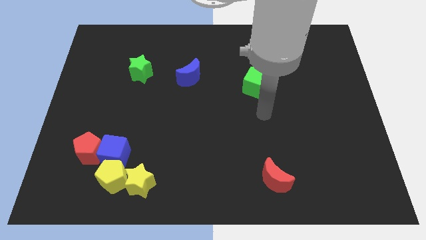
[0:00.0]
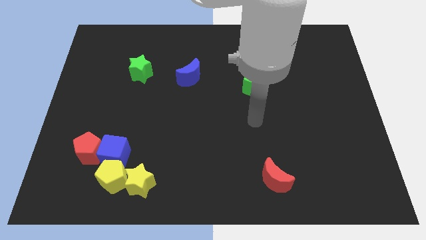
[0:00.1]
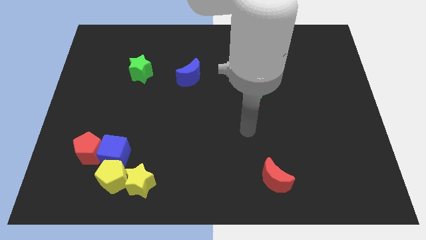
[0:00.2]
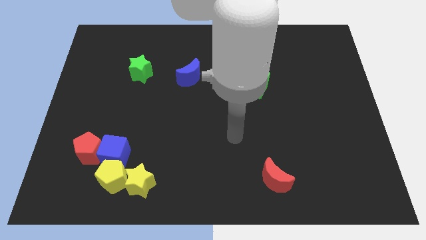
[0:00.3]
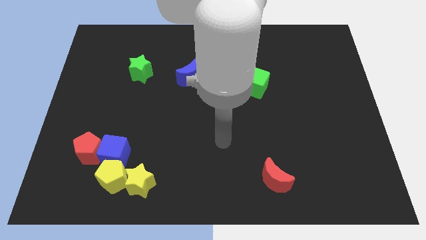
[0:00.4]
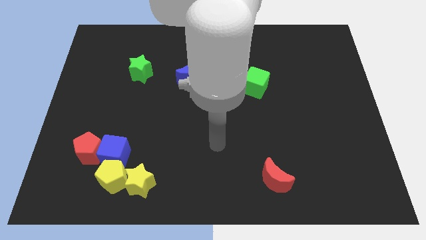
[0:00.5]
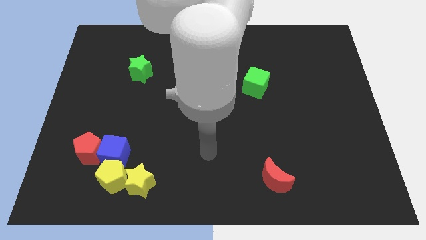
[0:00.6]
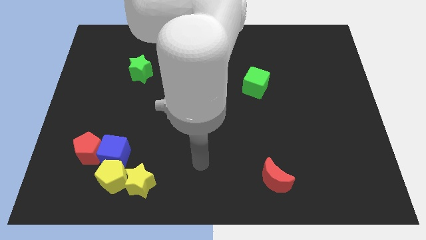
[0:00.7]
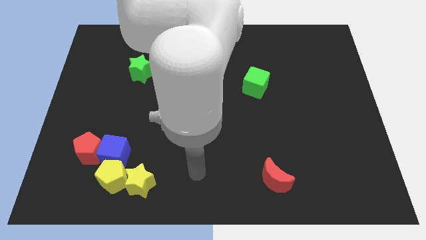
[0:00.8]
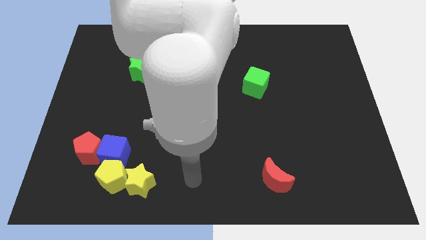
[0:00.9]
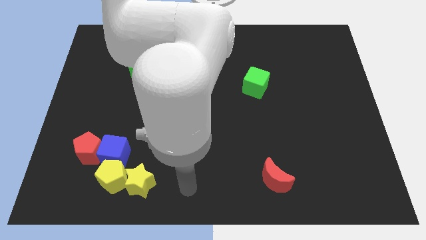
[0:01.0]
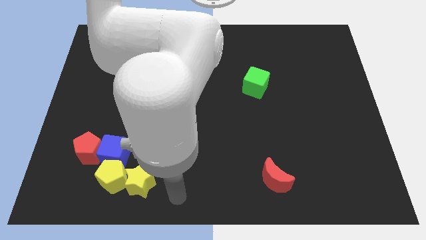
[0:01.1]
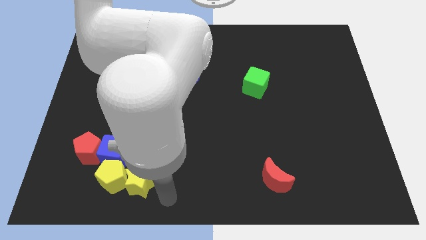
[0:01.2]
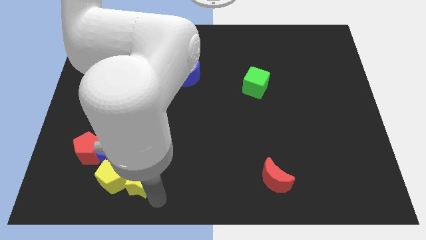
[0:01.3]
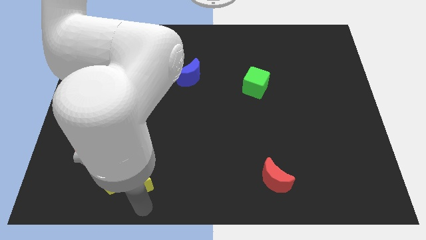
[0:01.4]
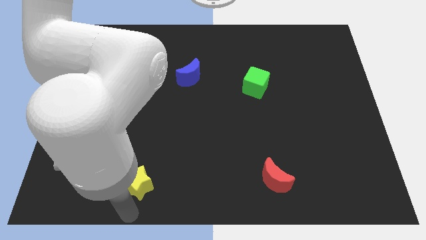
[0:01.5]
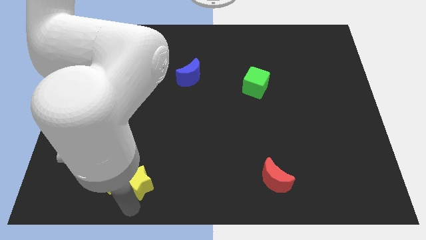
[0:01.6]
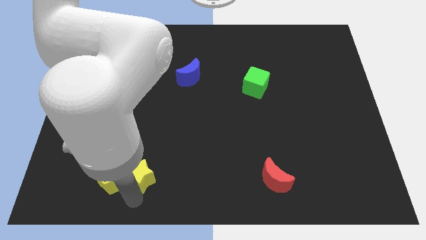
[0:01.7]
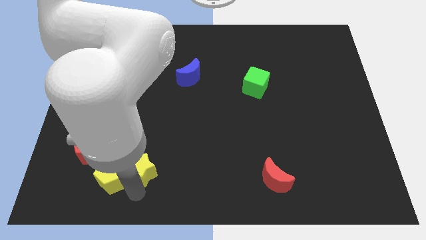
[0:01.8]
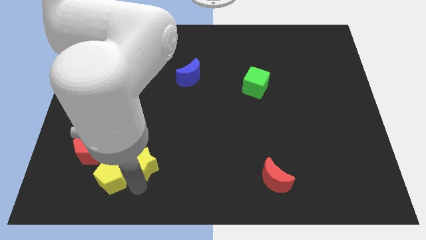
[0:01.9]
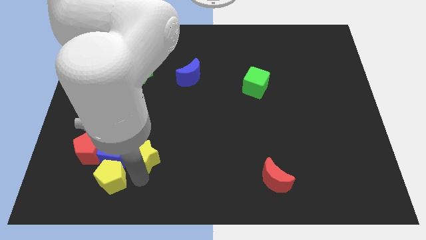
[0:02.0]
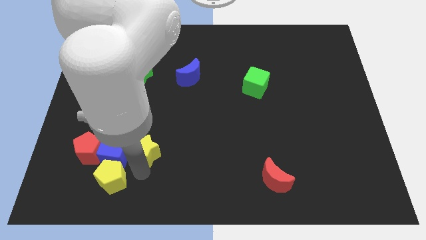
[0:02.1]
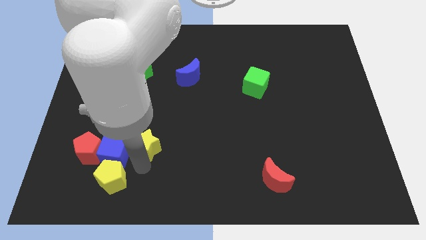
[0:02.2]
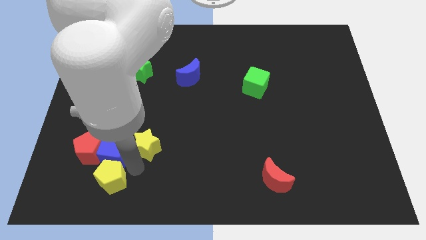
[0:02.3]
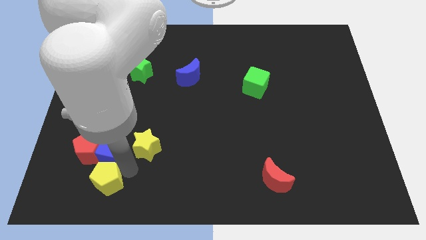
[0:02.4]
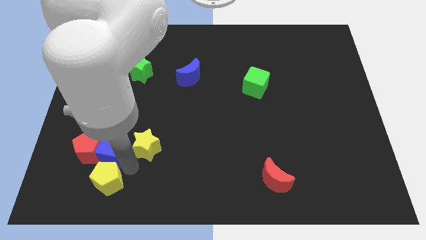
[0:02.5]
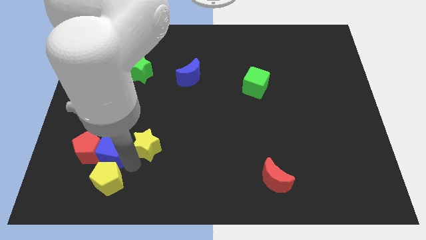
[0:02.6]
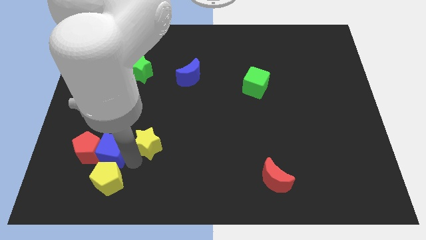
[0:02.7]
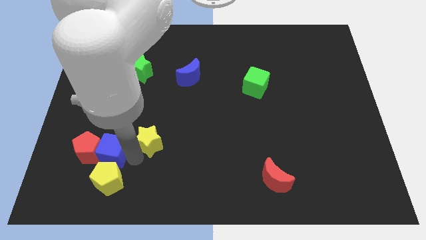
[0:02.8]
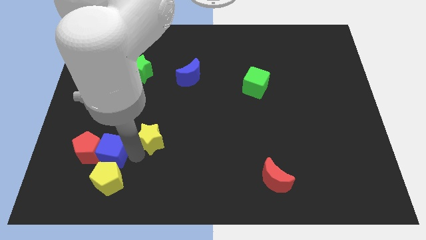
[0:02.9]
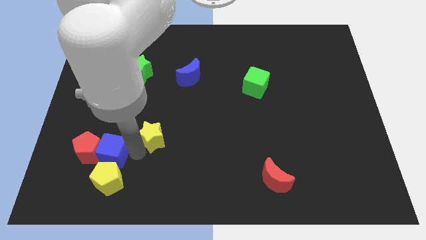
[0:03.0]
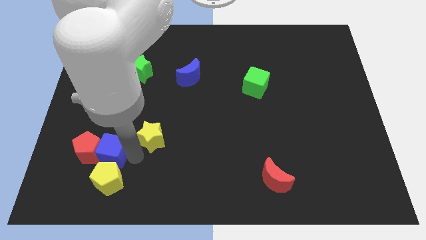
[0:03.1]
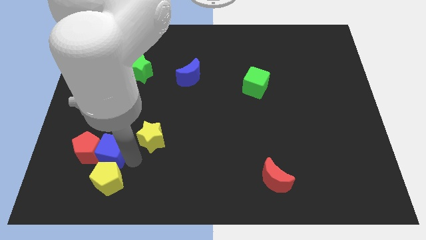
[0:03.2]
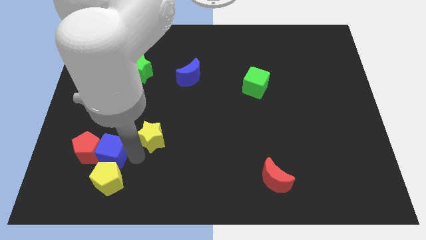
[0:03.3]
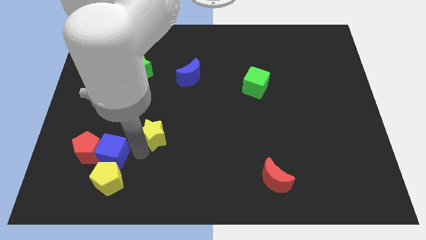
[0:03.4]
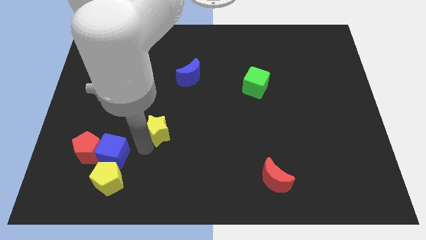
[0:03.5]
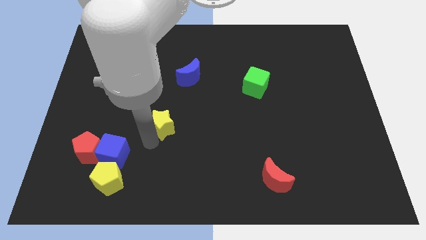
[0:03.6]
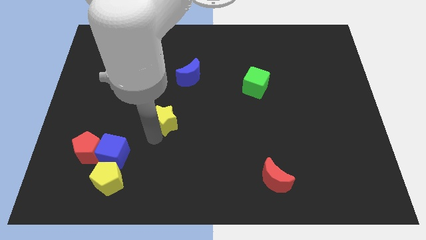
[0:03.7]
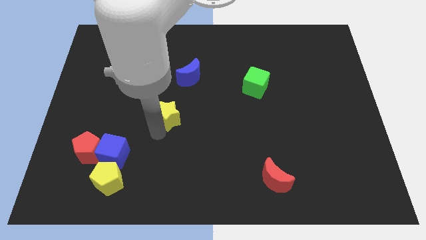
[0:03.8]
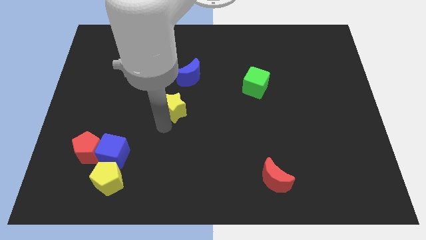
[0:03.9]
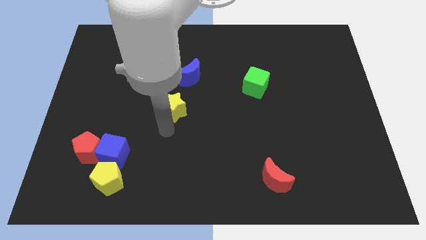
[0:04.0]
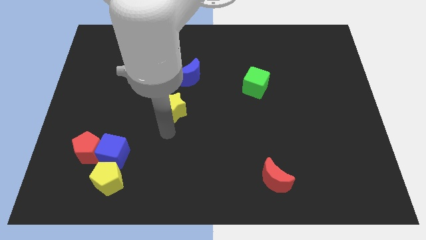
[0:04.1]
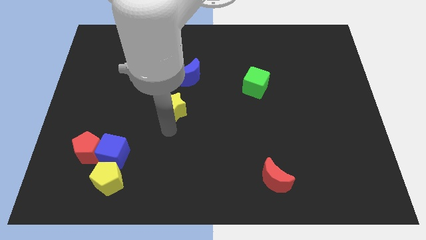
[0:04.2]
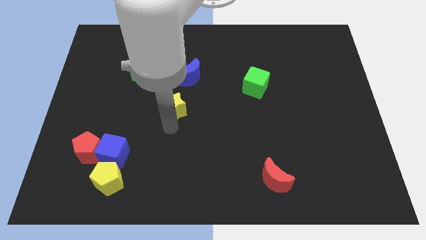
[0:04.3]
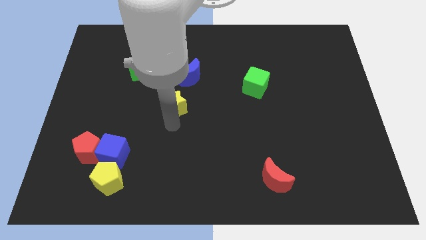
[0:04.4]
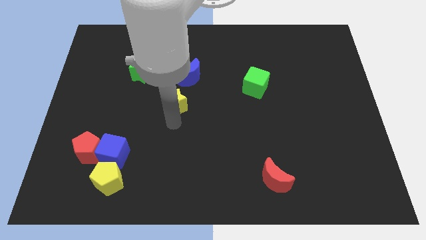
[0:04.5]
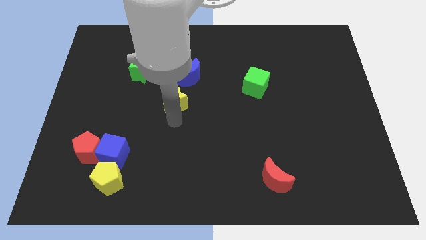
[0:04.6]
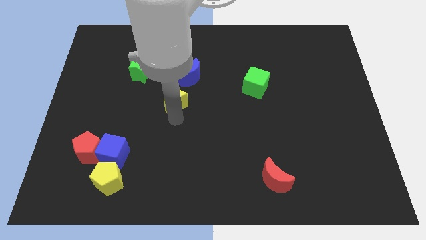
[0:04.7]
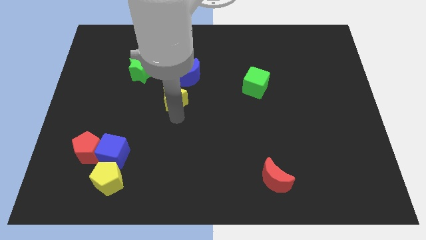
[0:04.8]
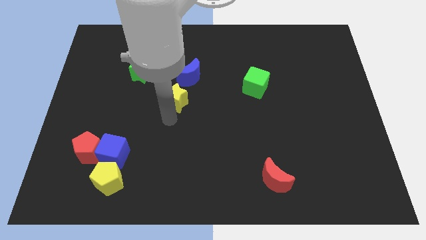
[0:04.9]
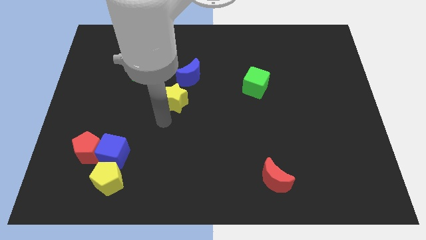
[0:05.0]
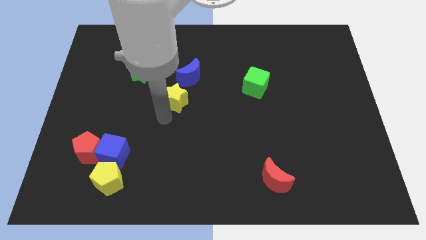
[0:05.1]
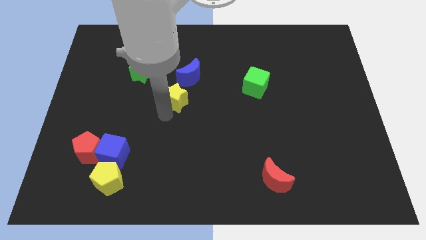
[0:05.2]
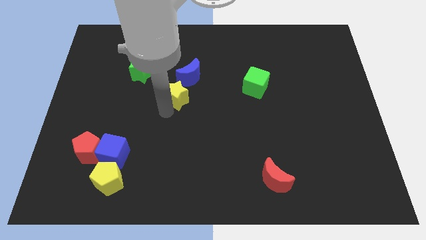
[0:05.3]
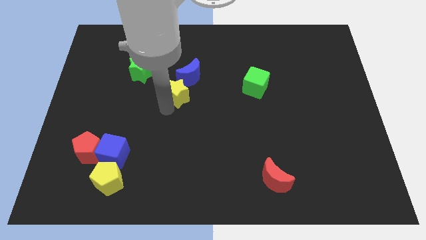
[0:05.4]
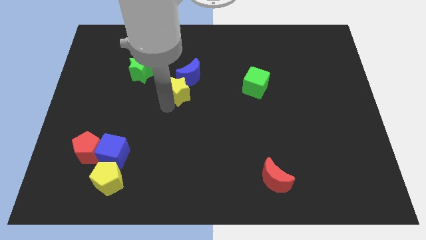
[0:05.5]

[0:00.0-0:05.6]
push the yellow star next to the blue moon

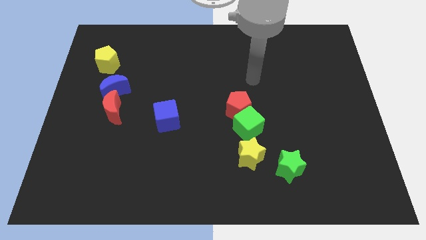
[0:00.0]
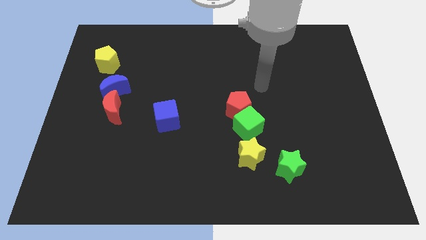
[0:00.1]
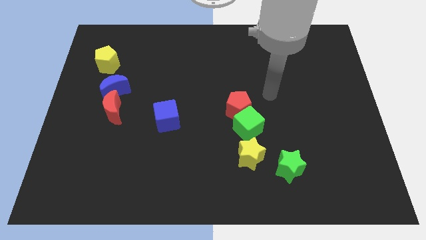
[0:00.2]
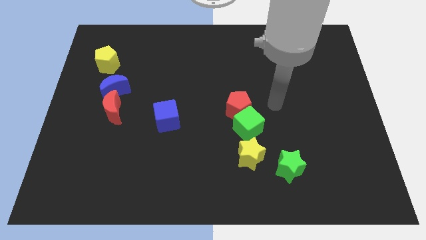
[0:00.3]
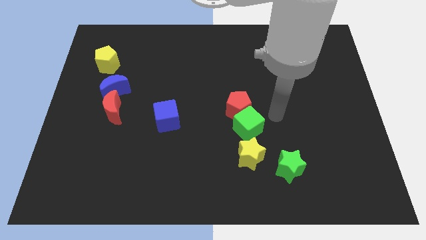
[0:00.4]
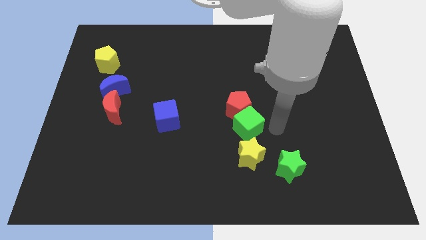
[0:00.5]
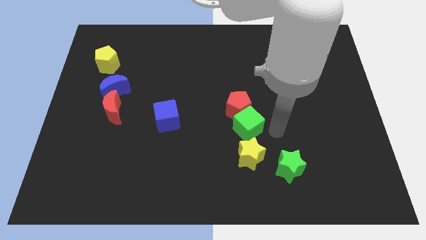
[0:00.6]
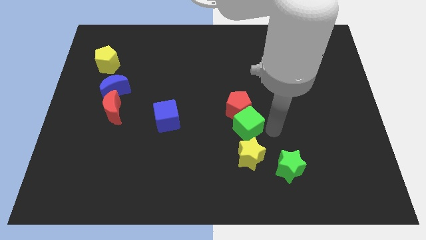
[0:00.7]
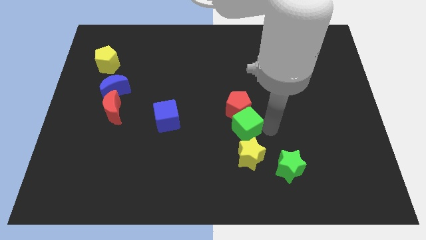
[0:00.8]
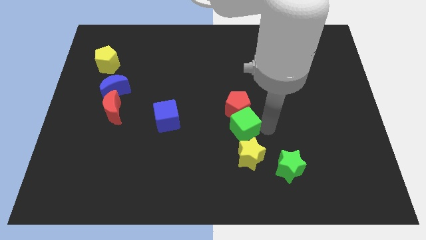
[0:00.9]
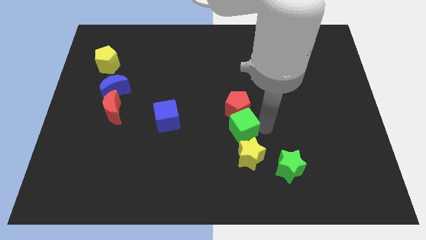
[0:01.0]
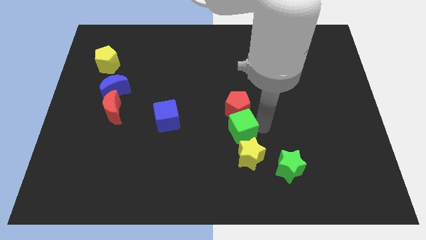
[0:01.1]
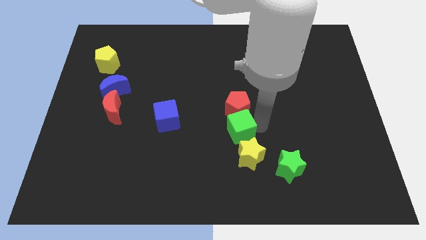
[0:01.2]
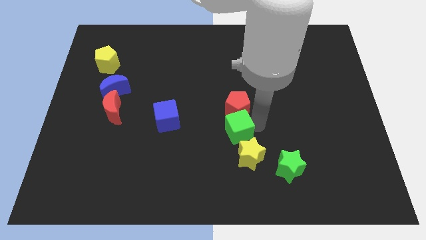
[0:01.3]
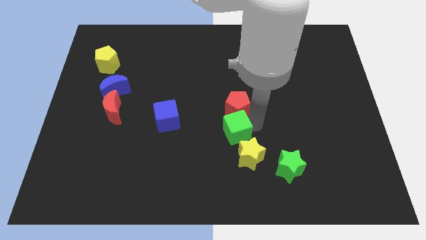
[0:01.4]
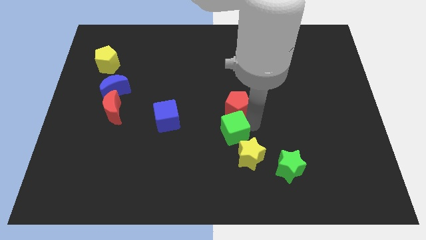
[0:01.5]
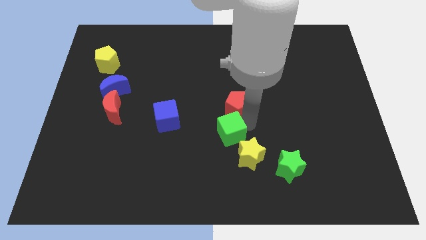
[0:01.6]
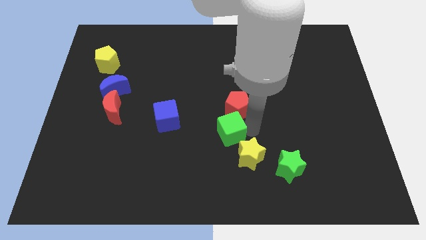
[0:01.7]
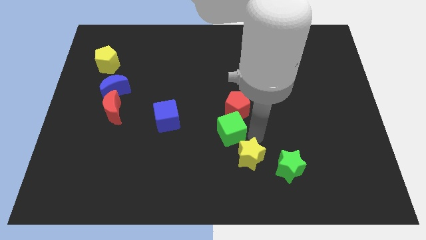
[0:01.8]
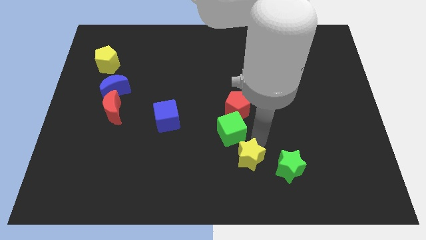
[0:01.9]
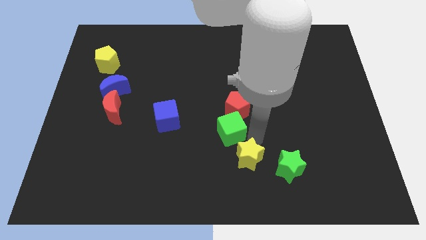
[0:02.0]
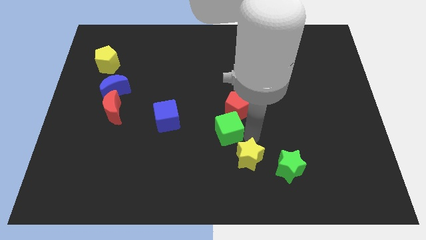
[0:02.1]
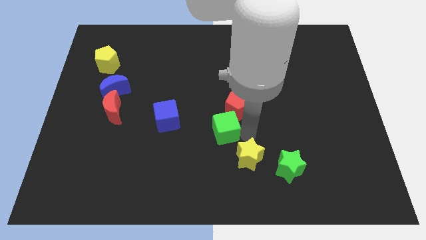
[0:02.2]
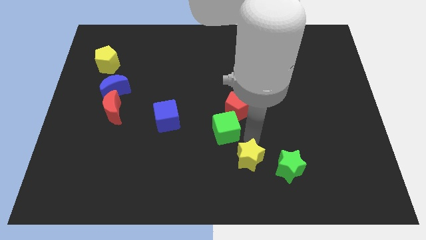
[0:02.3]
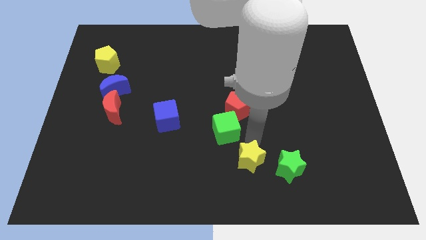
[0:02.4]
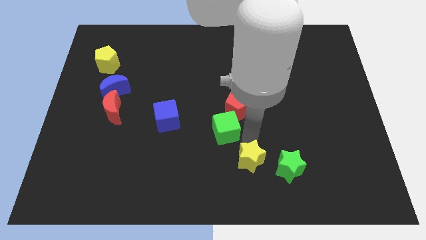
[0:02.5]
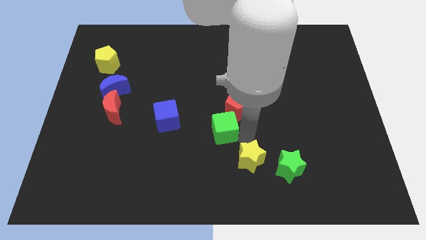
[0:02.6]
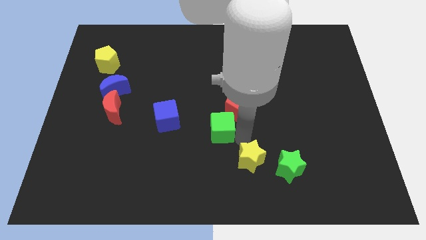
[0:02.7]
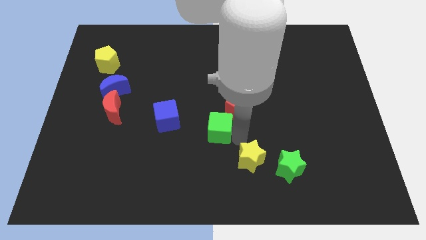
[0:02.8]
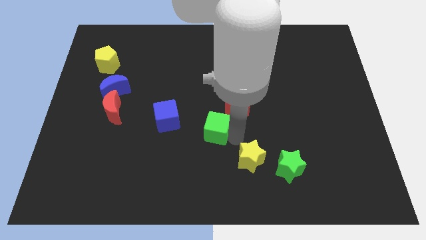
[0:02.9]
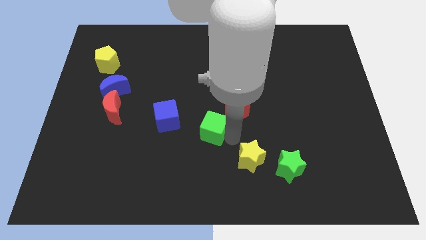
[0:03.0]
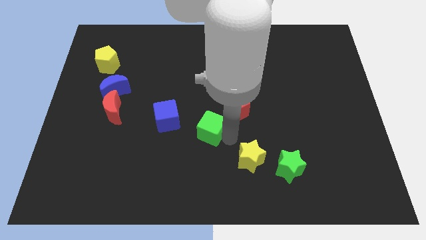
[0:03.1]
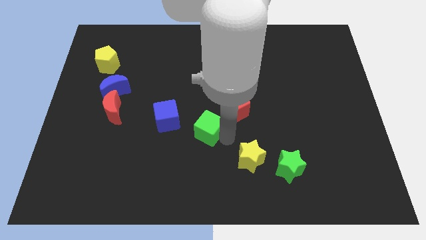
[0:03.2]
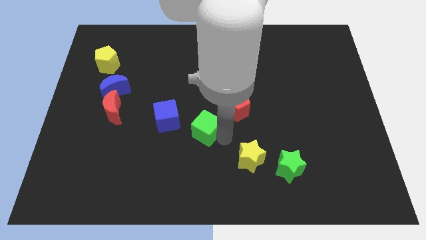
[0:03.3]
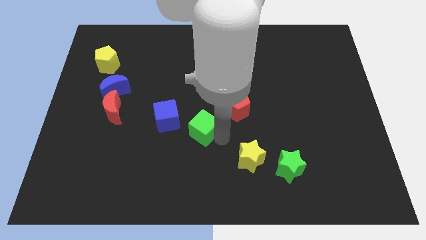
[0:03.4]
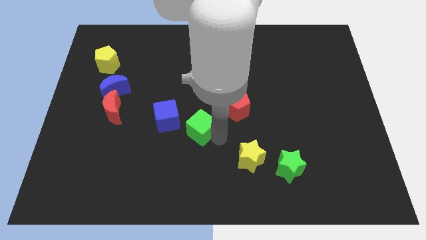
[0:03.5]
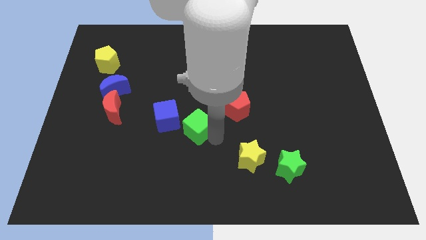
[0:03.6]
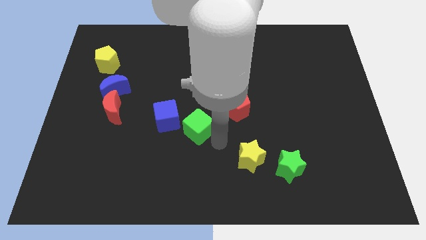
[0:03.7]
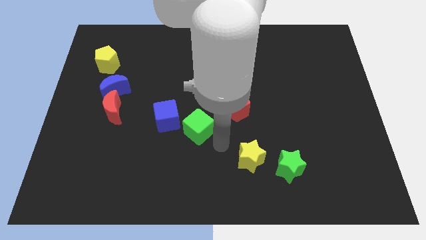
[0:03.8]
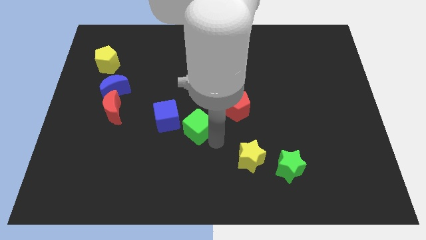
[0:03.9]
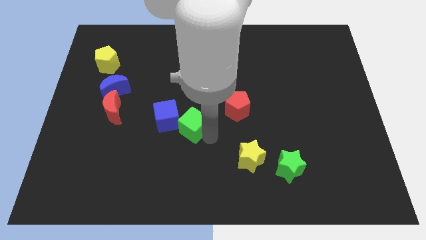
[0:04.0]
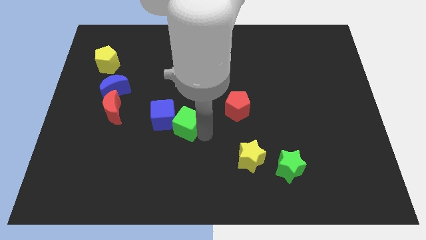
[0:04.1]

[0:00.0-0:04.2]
slide the green cube close to the blue cube
